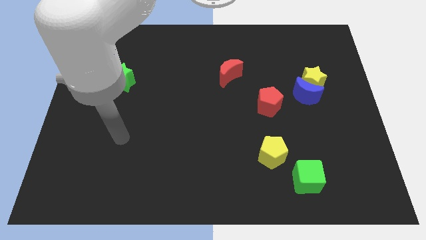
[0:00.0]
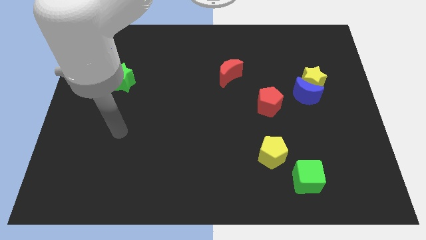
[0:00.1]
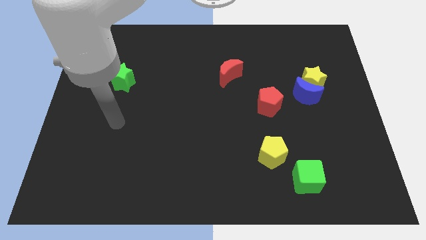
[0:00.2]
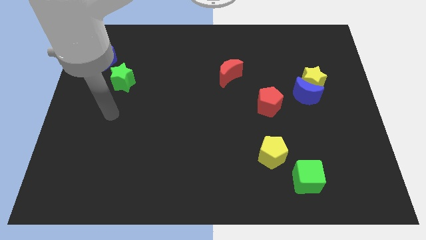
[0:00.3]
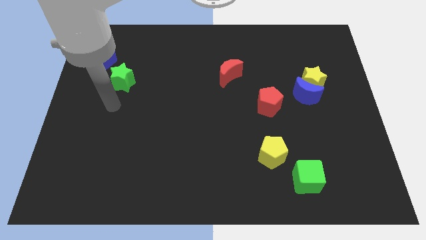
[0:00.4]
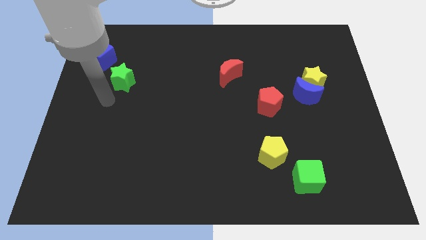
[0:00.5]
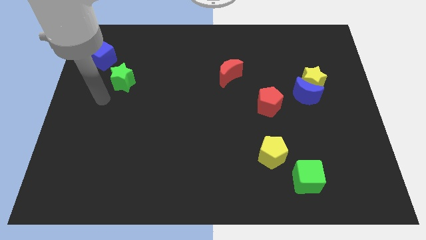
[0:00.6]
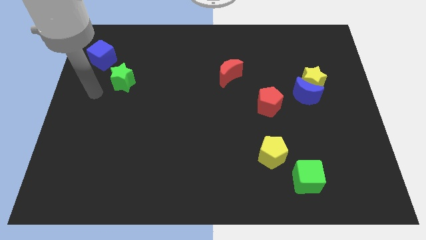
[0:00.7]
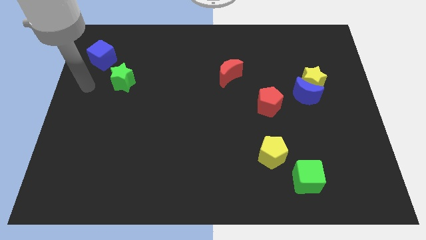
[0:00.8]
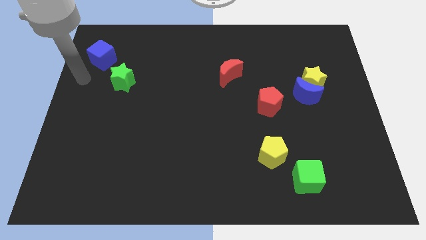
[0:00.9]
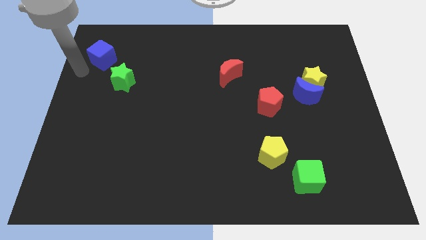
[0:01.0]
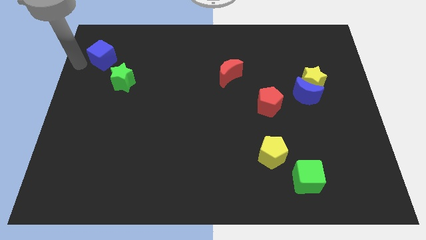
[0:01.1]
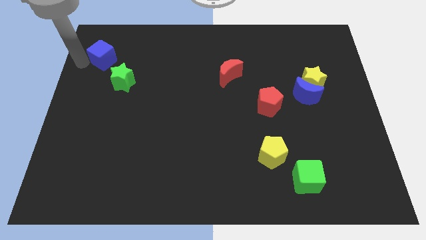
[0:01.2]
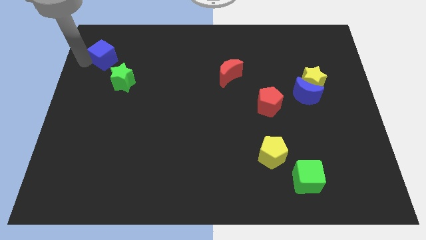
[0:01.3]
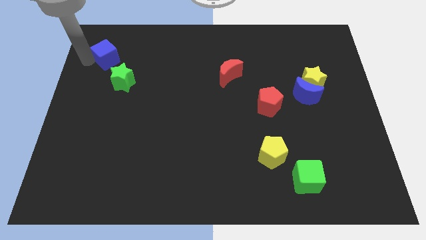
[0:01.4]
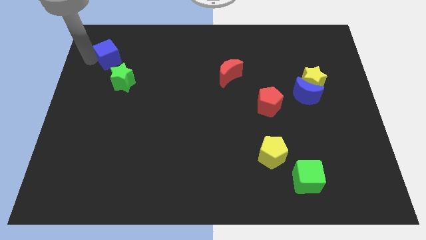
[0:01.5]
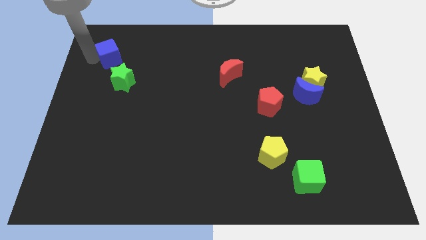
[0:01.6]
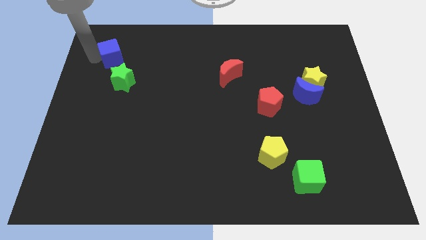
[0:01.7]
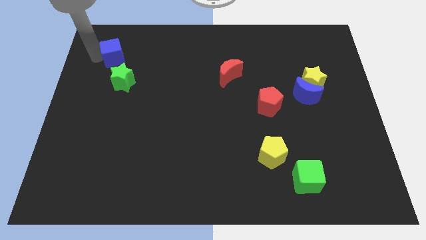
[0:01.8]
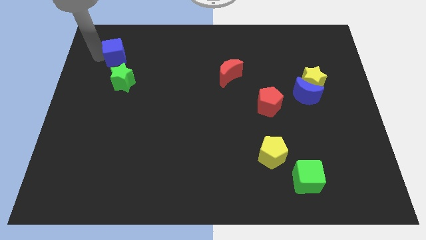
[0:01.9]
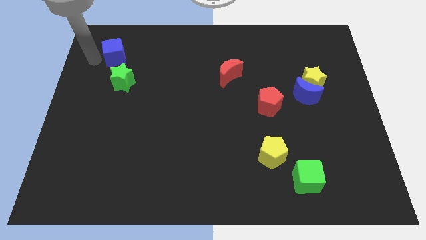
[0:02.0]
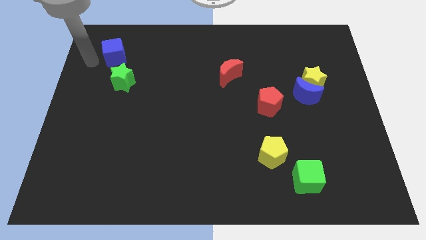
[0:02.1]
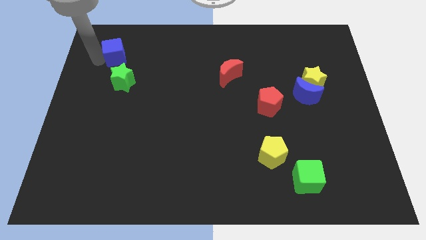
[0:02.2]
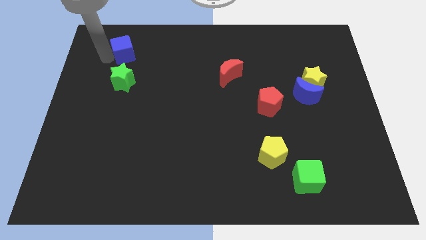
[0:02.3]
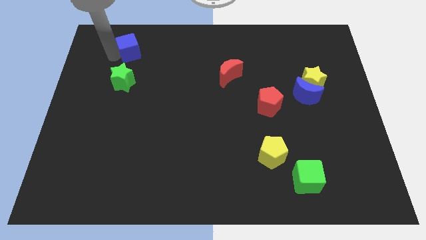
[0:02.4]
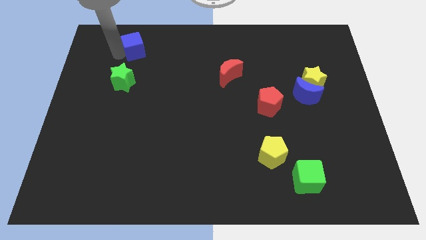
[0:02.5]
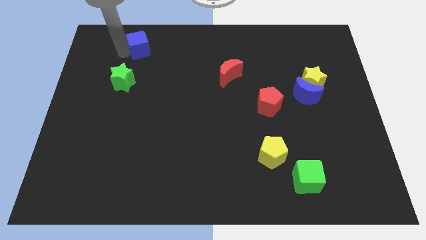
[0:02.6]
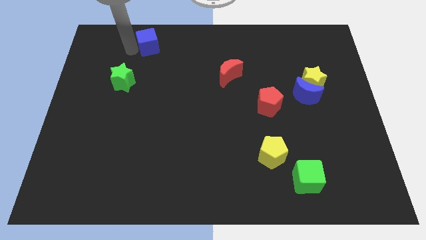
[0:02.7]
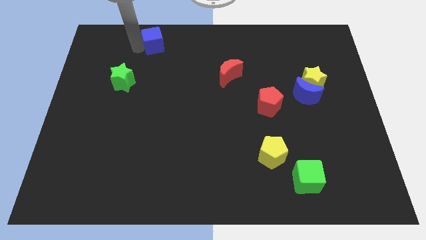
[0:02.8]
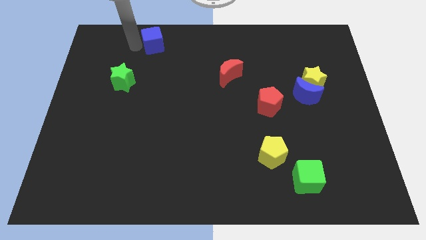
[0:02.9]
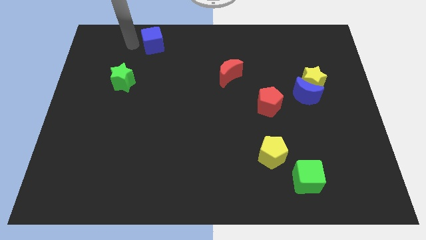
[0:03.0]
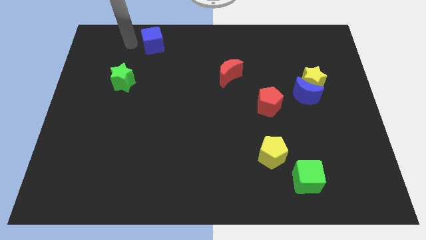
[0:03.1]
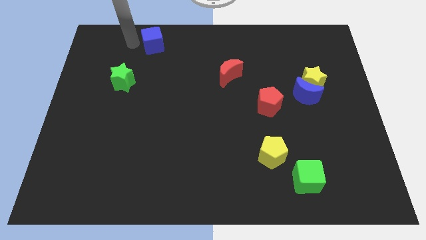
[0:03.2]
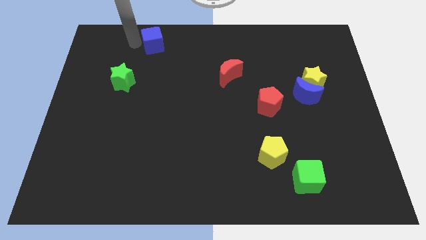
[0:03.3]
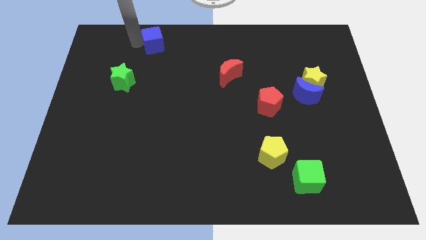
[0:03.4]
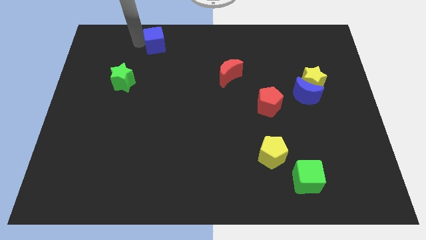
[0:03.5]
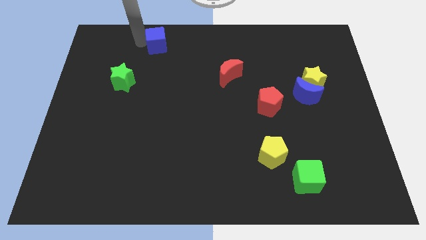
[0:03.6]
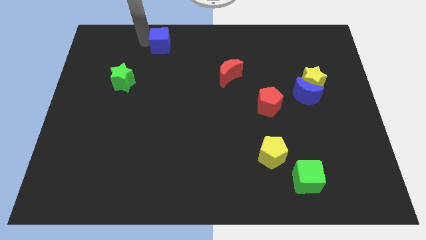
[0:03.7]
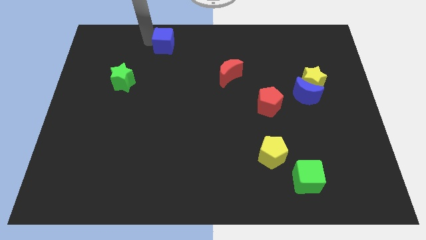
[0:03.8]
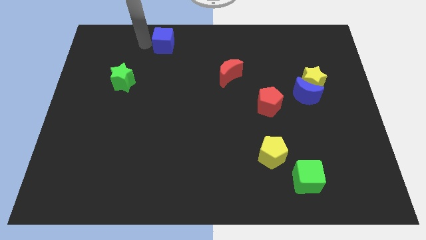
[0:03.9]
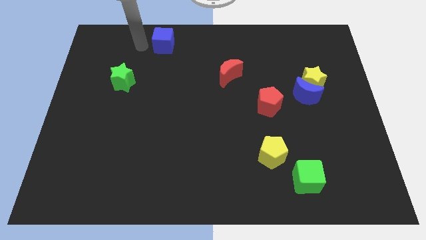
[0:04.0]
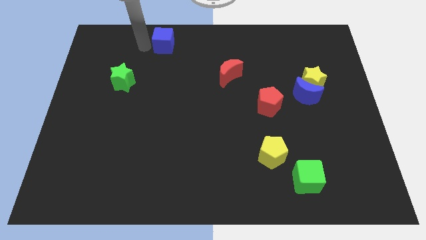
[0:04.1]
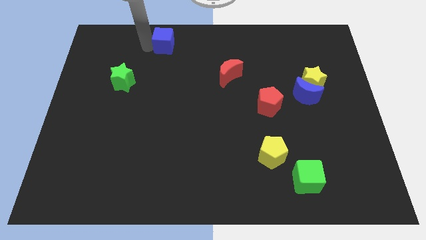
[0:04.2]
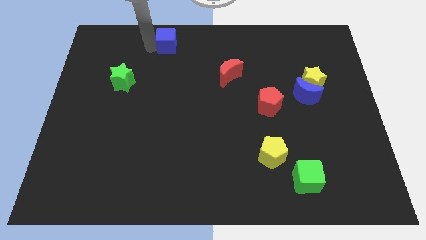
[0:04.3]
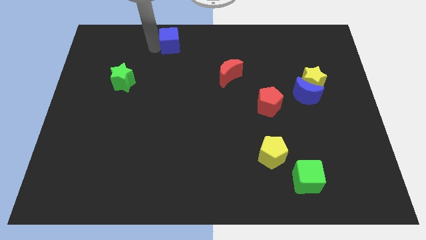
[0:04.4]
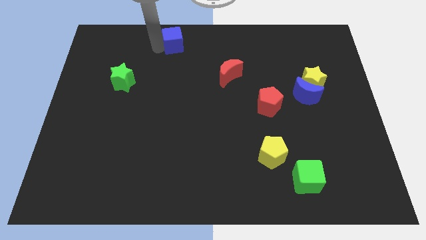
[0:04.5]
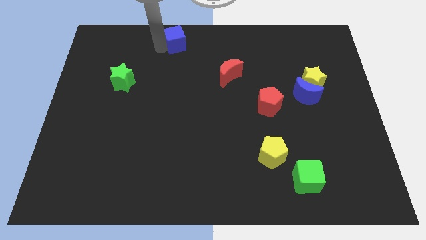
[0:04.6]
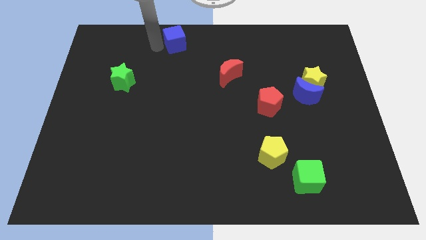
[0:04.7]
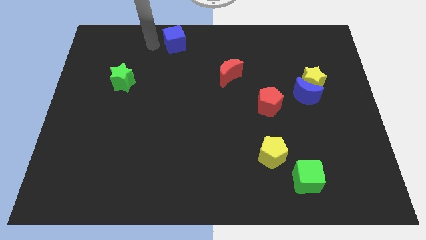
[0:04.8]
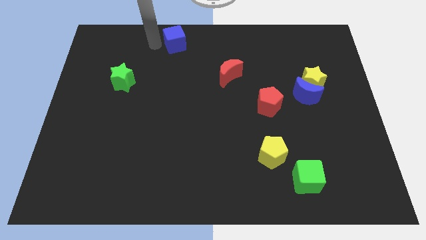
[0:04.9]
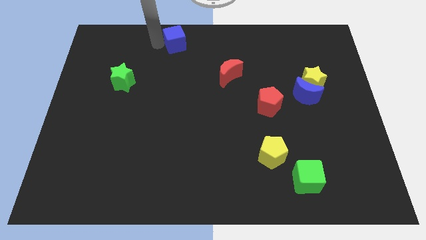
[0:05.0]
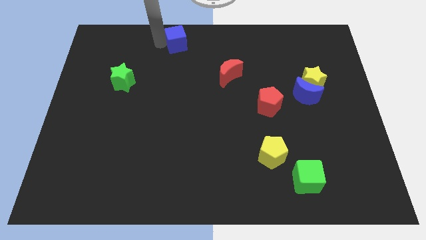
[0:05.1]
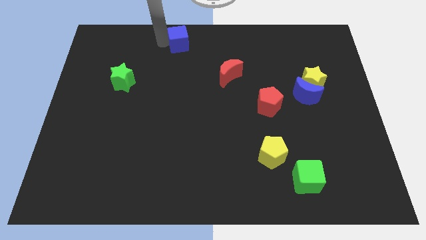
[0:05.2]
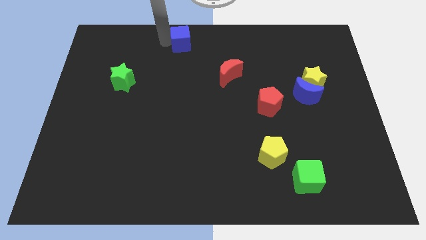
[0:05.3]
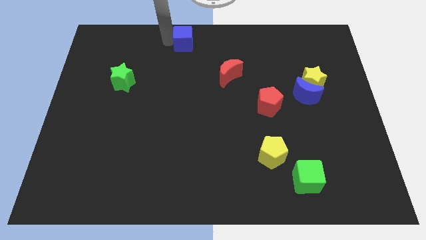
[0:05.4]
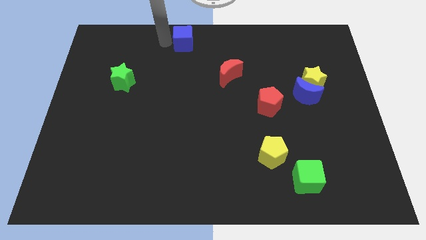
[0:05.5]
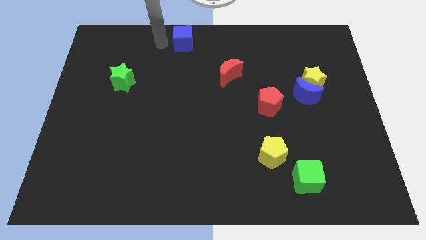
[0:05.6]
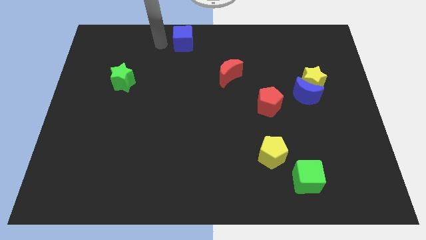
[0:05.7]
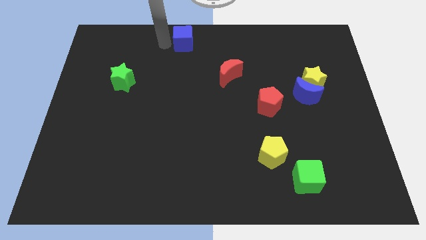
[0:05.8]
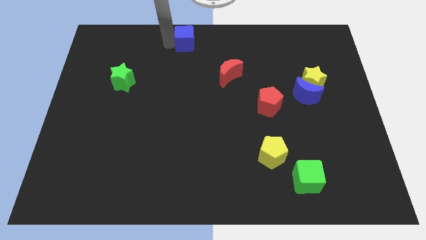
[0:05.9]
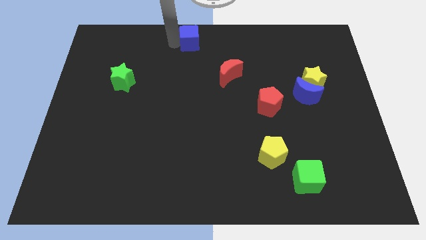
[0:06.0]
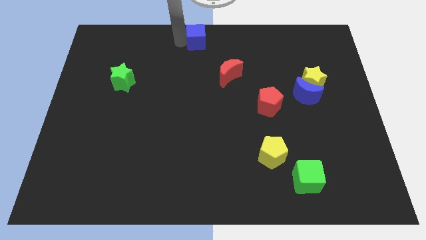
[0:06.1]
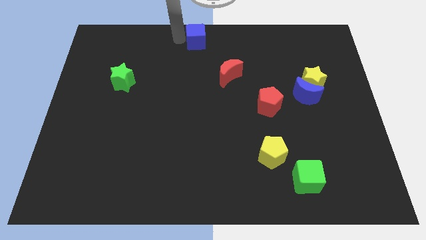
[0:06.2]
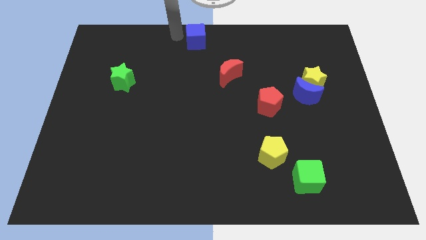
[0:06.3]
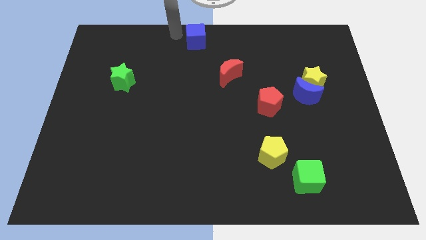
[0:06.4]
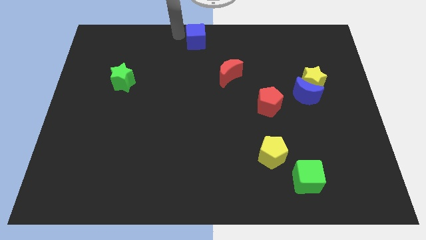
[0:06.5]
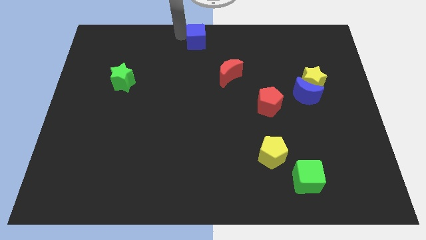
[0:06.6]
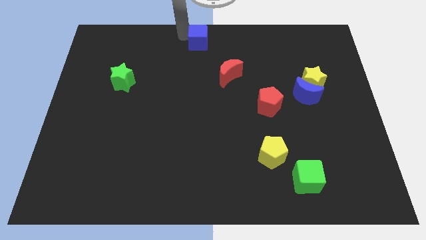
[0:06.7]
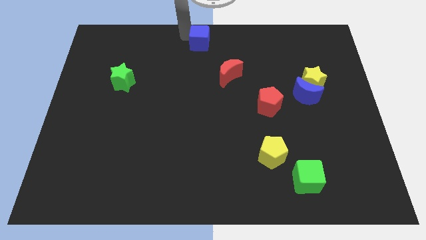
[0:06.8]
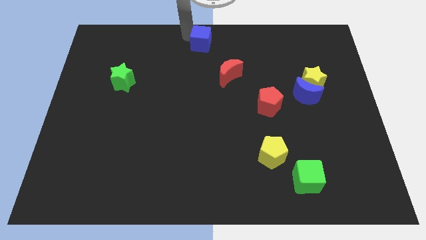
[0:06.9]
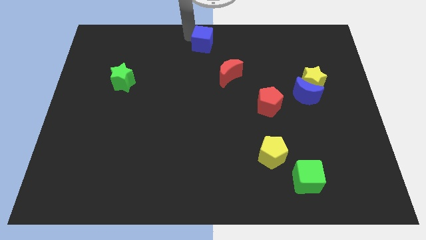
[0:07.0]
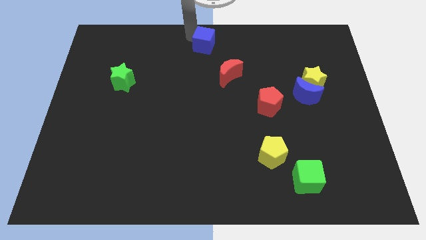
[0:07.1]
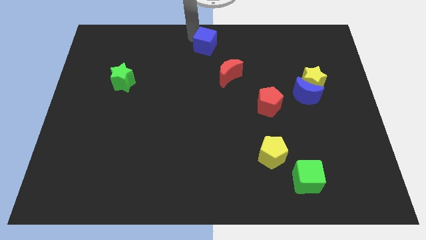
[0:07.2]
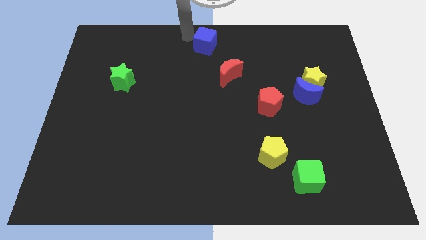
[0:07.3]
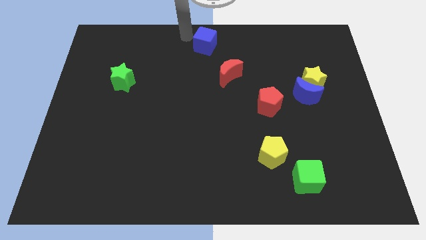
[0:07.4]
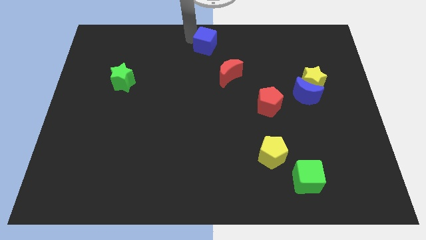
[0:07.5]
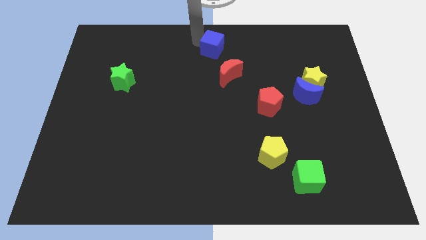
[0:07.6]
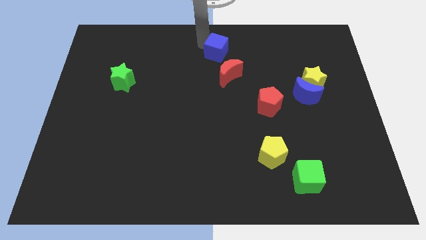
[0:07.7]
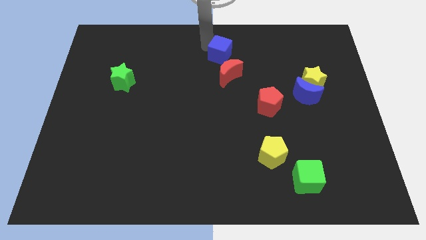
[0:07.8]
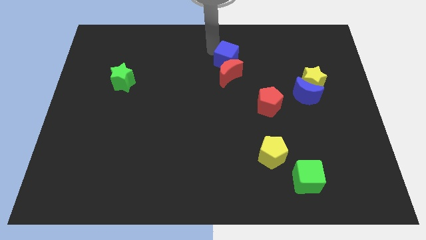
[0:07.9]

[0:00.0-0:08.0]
slide the blue cube to the top right side of the red moon
